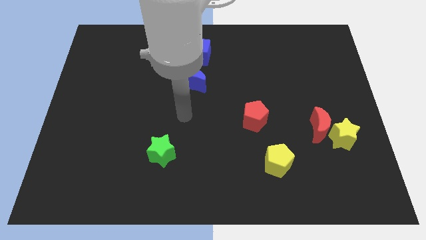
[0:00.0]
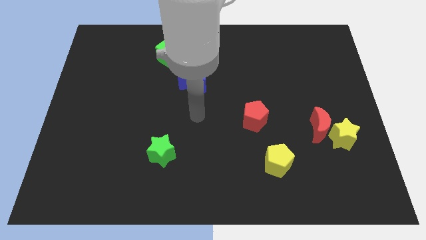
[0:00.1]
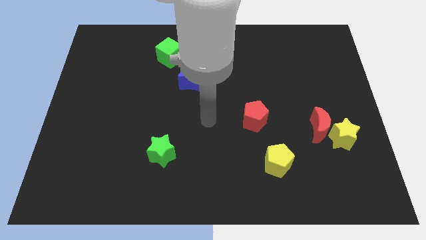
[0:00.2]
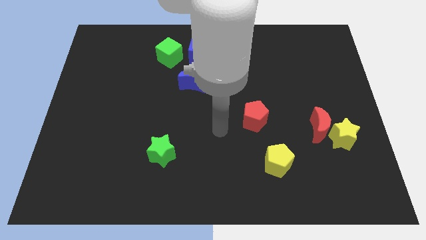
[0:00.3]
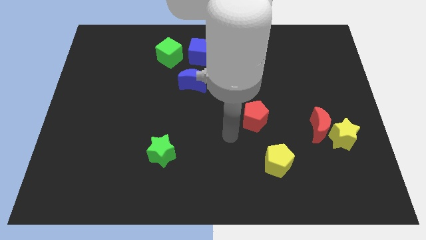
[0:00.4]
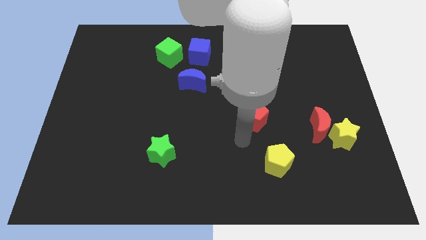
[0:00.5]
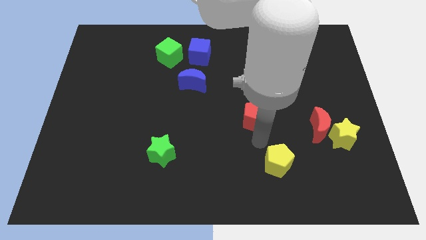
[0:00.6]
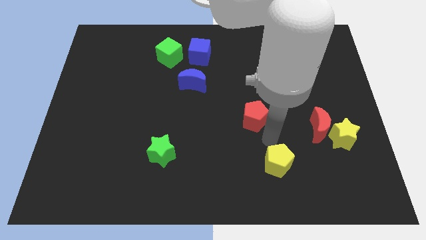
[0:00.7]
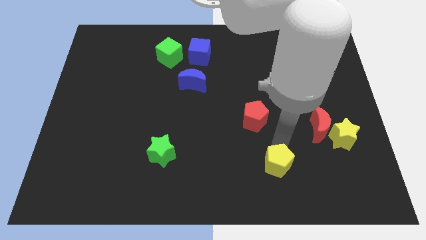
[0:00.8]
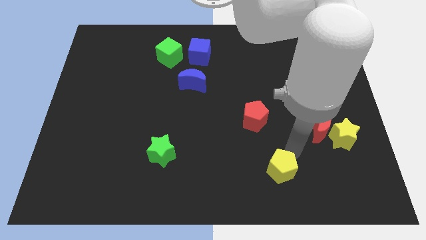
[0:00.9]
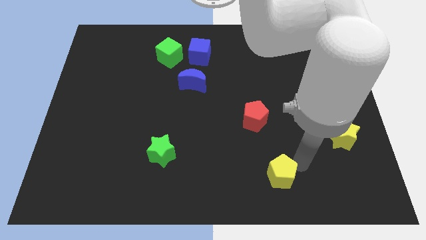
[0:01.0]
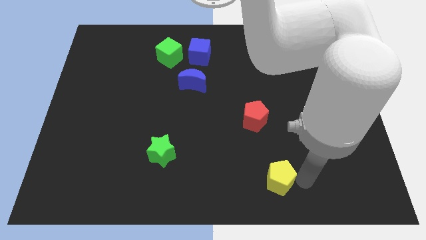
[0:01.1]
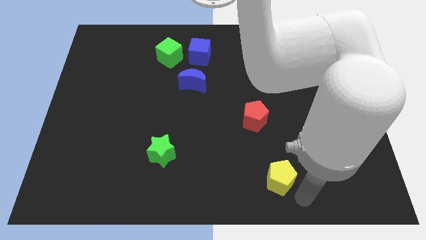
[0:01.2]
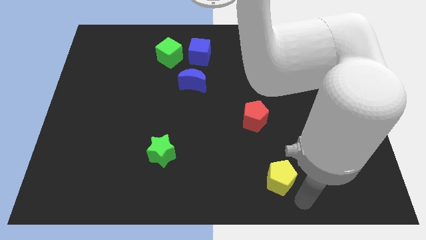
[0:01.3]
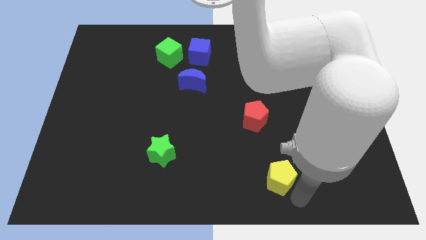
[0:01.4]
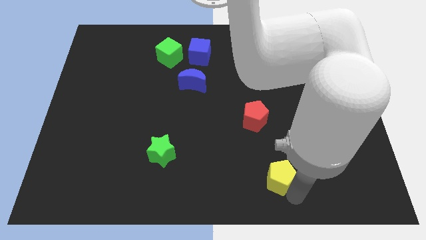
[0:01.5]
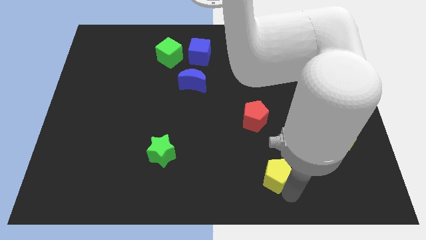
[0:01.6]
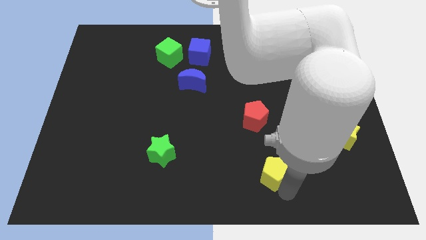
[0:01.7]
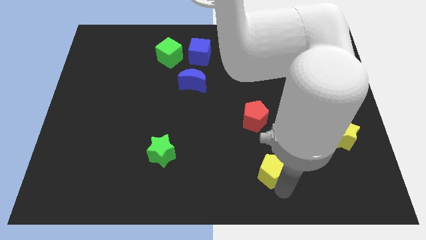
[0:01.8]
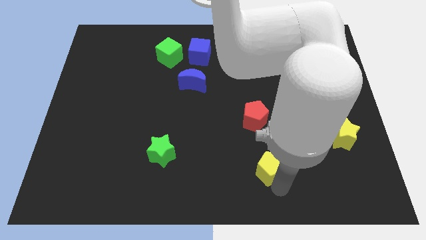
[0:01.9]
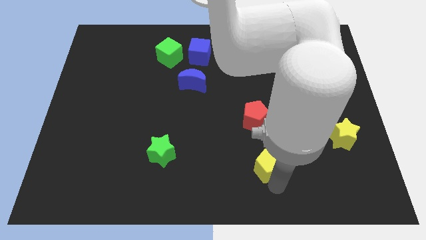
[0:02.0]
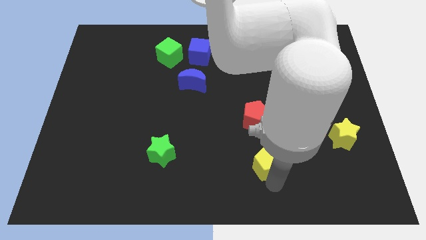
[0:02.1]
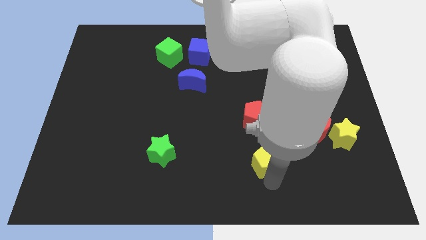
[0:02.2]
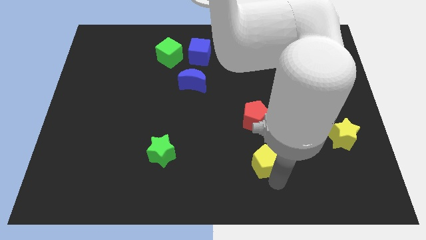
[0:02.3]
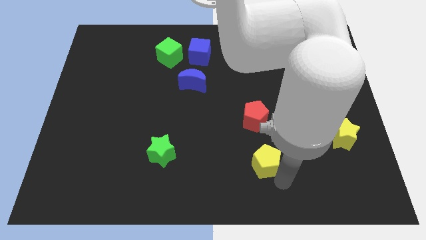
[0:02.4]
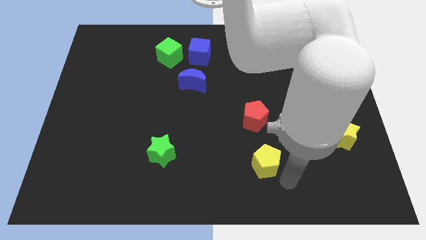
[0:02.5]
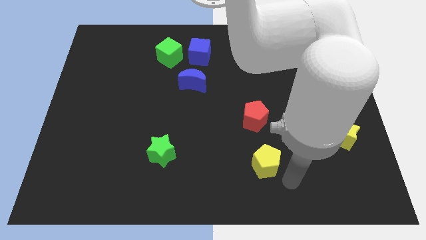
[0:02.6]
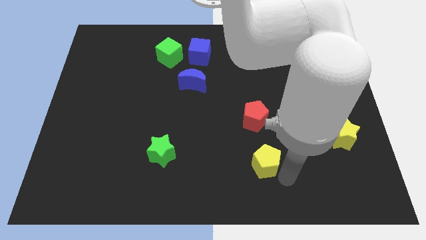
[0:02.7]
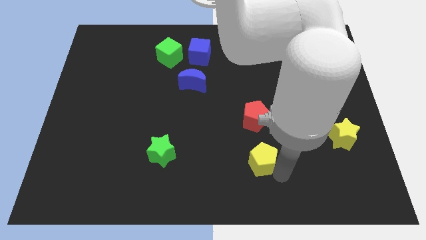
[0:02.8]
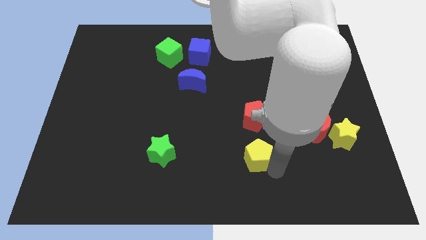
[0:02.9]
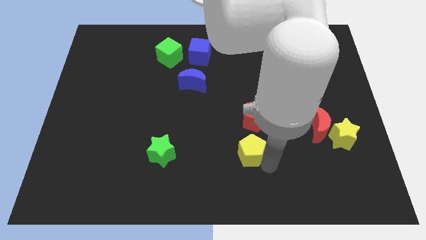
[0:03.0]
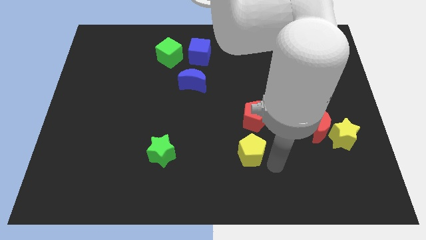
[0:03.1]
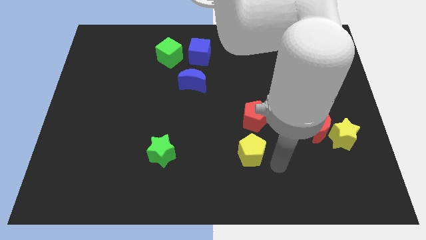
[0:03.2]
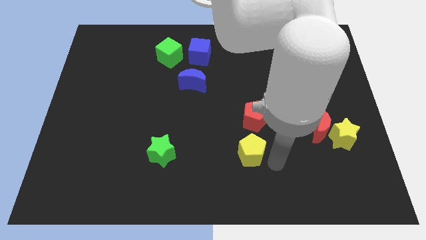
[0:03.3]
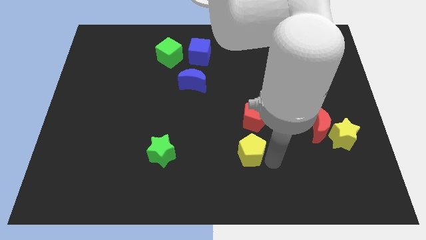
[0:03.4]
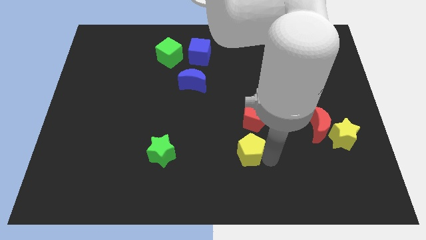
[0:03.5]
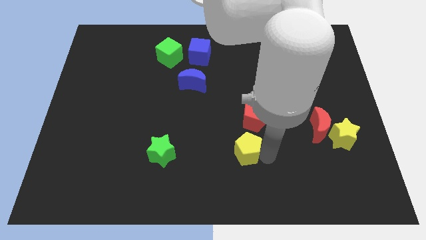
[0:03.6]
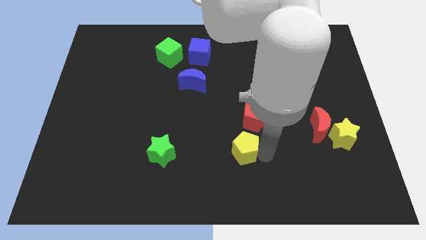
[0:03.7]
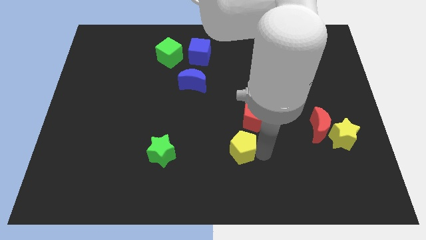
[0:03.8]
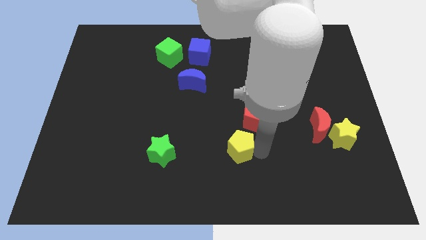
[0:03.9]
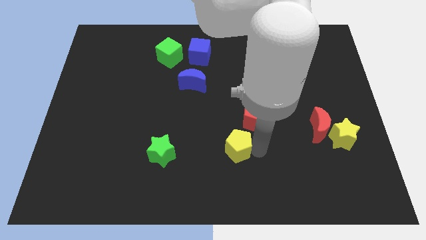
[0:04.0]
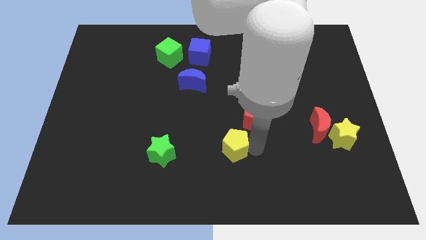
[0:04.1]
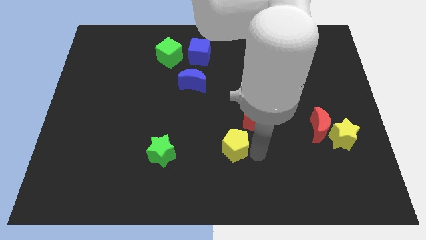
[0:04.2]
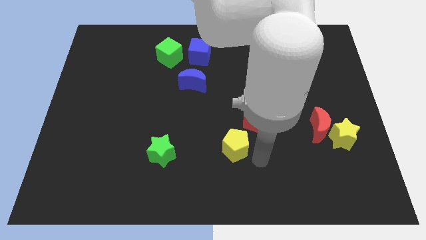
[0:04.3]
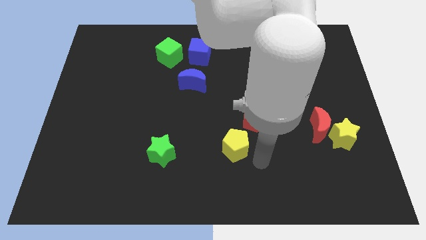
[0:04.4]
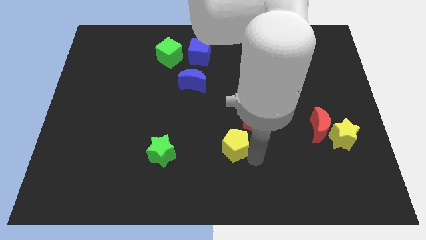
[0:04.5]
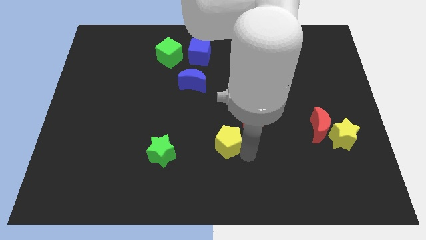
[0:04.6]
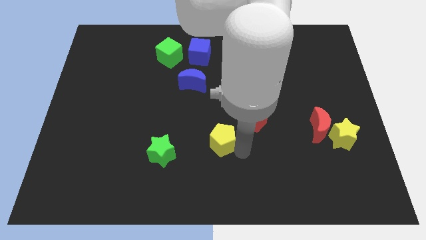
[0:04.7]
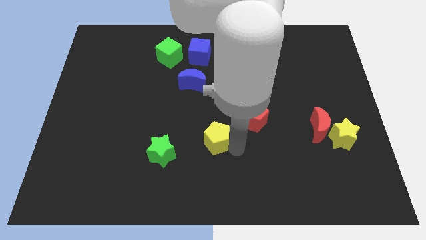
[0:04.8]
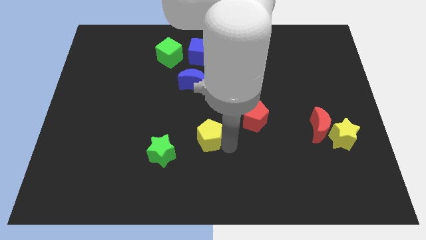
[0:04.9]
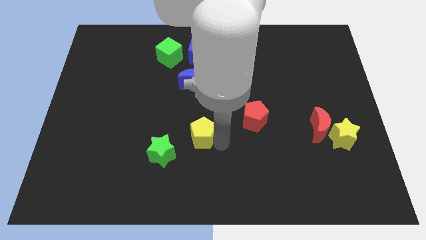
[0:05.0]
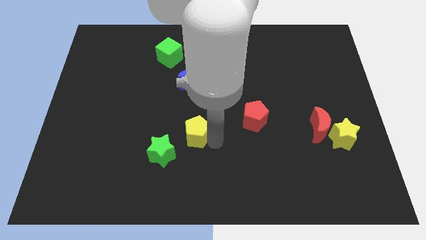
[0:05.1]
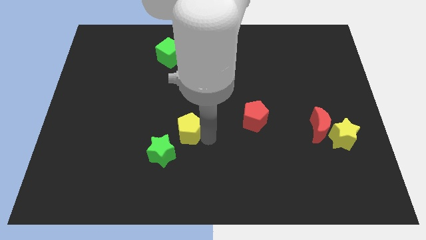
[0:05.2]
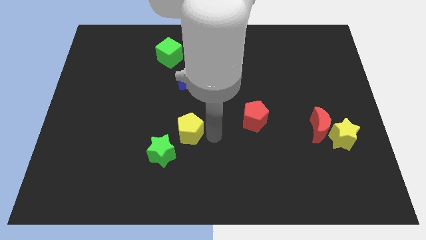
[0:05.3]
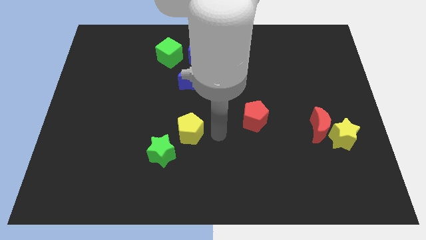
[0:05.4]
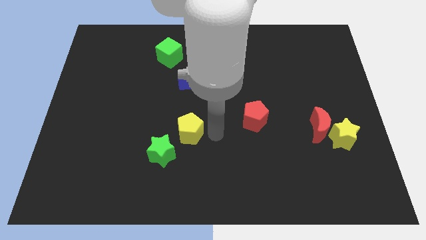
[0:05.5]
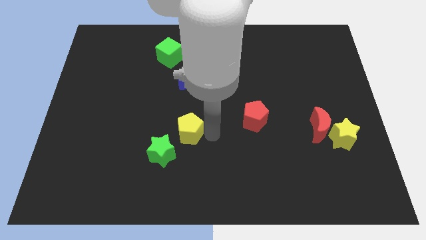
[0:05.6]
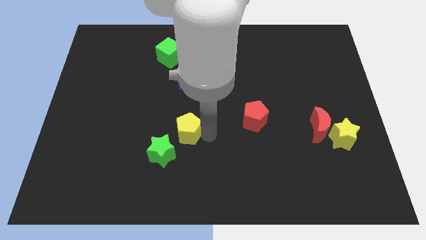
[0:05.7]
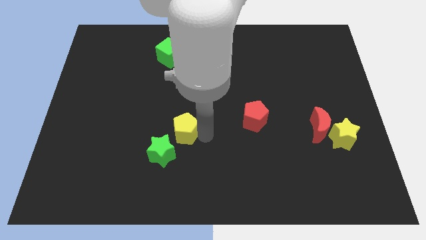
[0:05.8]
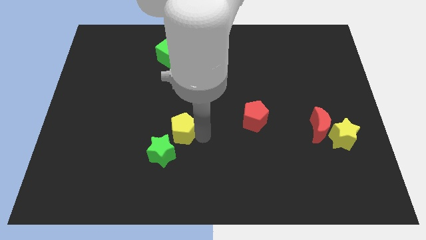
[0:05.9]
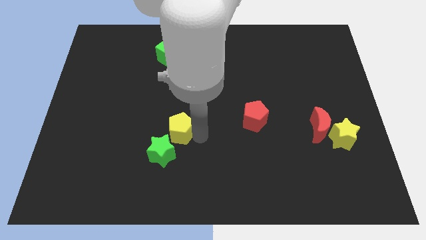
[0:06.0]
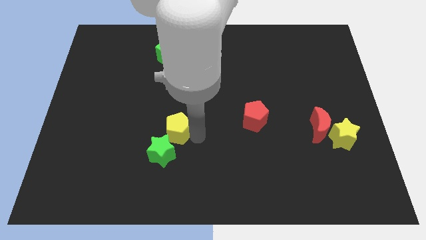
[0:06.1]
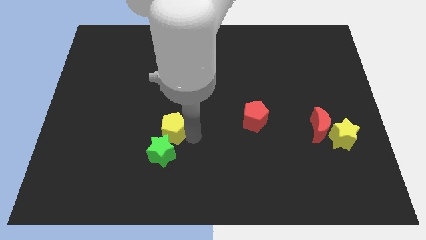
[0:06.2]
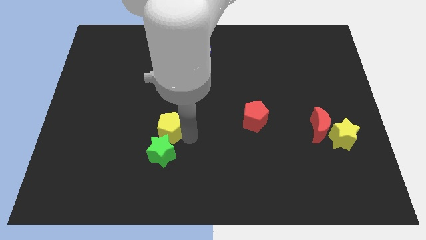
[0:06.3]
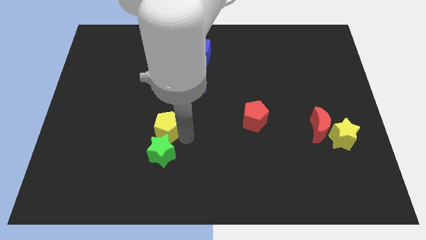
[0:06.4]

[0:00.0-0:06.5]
put the yellow pentagon to the top left side of the green star

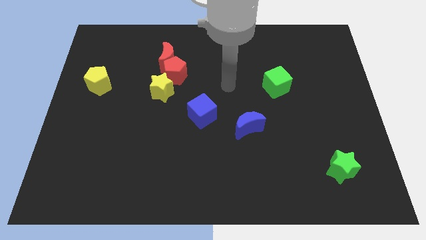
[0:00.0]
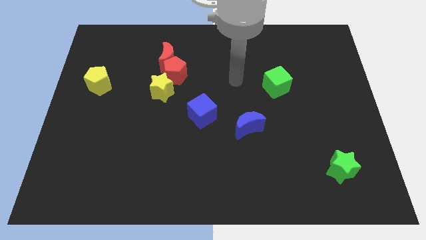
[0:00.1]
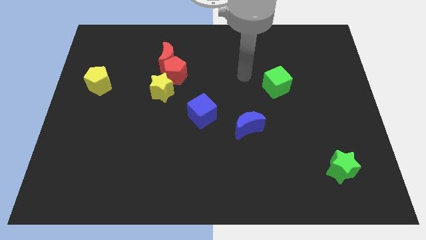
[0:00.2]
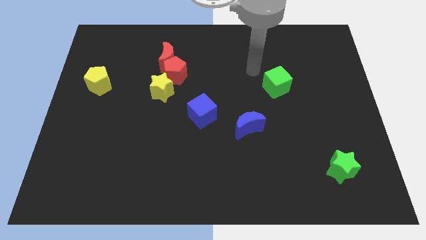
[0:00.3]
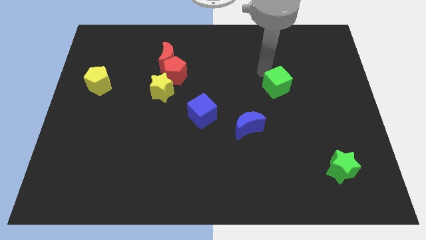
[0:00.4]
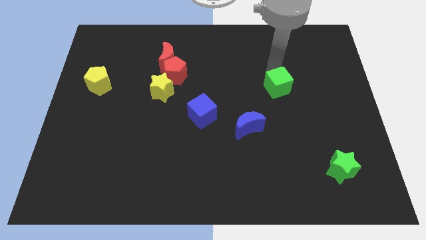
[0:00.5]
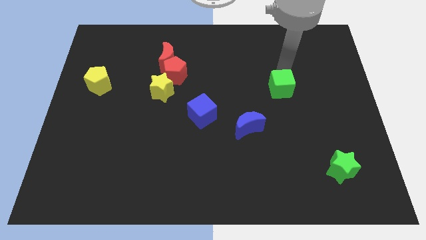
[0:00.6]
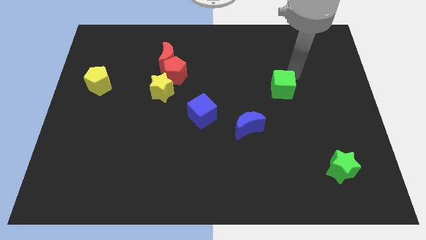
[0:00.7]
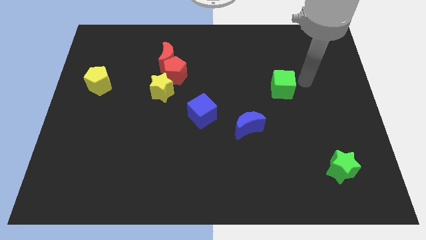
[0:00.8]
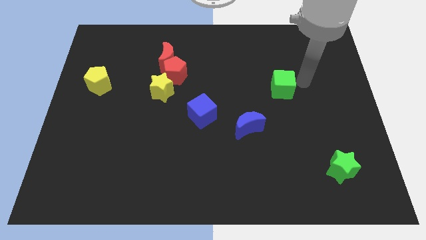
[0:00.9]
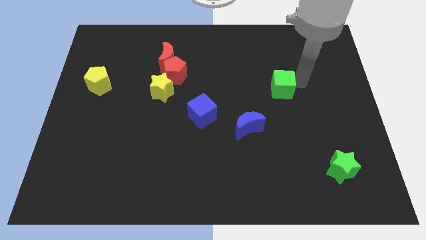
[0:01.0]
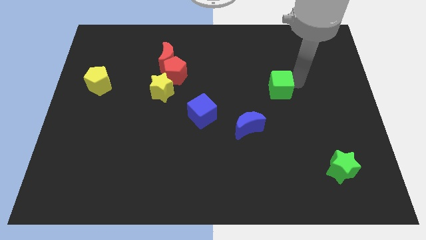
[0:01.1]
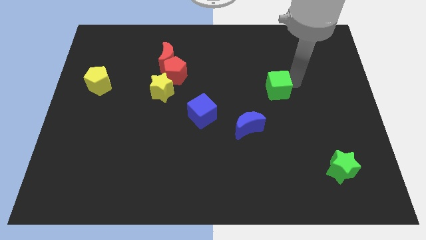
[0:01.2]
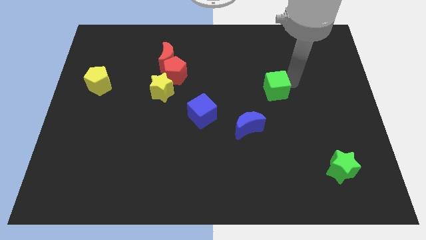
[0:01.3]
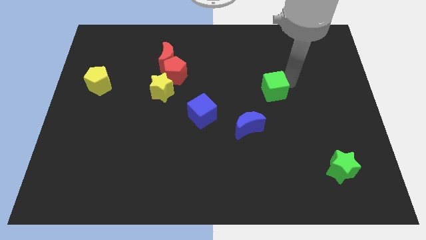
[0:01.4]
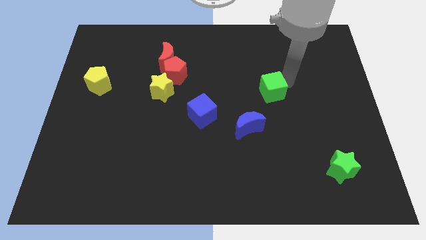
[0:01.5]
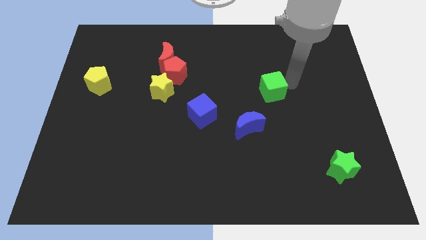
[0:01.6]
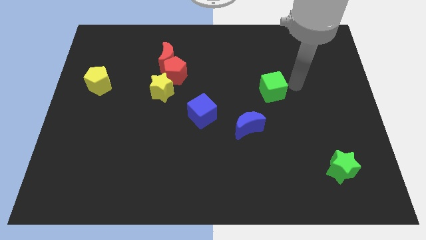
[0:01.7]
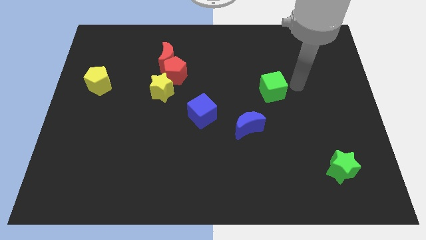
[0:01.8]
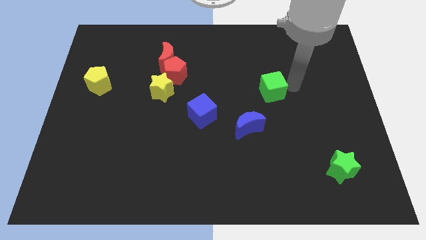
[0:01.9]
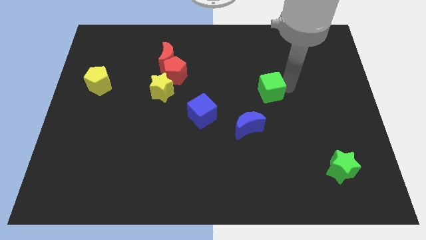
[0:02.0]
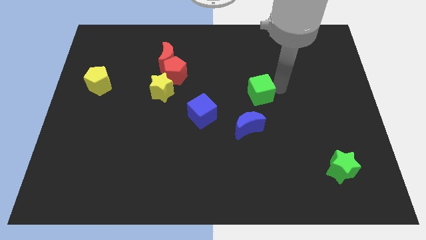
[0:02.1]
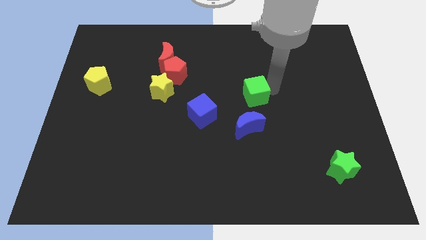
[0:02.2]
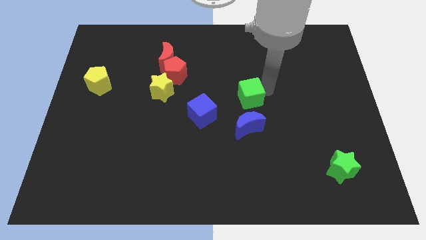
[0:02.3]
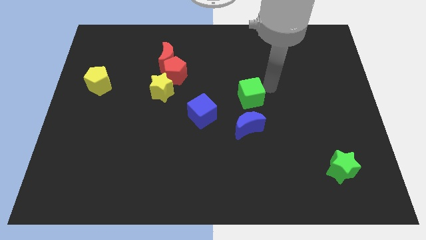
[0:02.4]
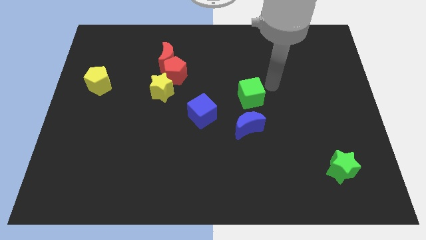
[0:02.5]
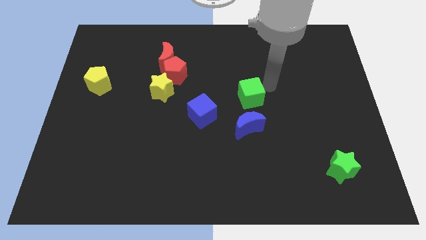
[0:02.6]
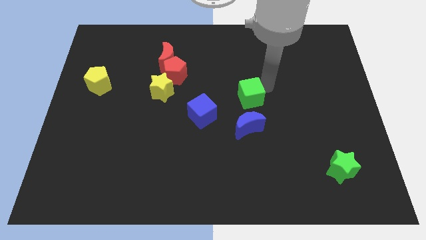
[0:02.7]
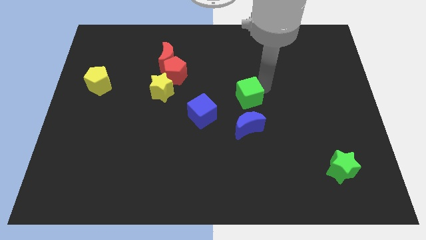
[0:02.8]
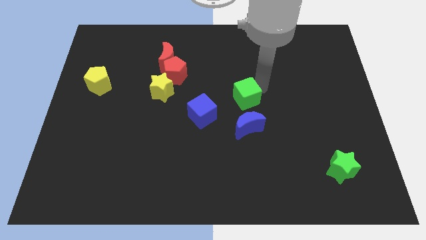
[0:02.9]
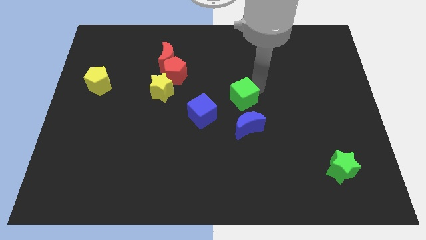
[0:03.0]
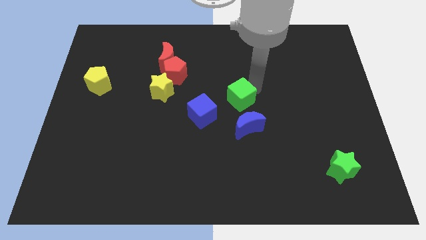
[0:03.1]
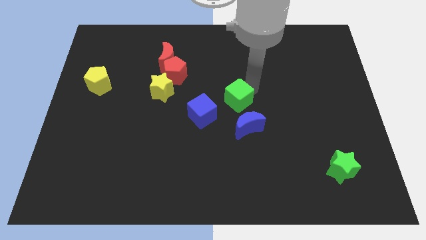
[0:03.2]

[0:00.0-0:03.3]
move the green cube to the top left of the blue moon
